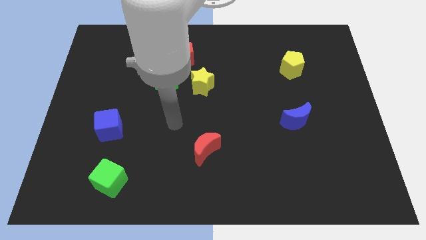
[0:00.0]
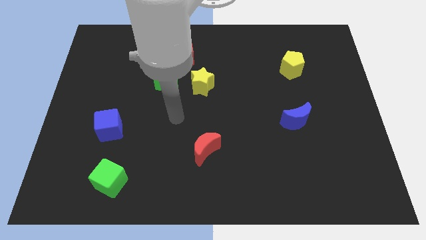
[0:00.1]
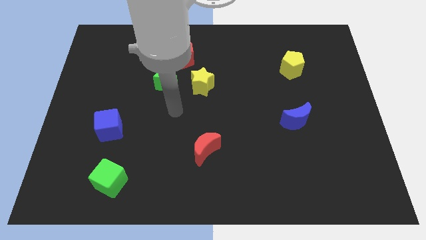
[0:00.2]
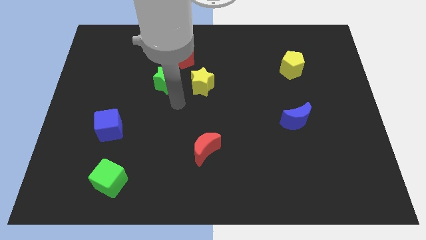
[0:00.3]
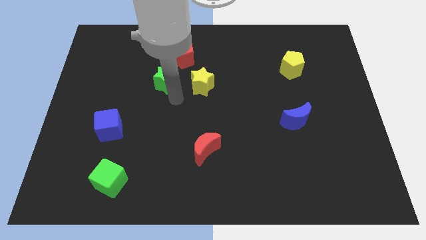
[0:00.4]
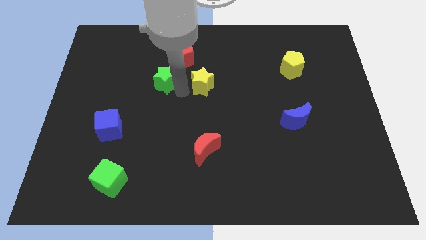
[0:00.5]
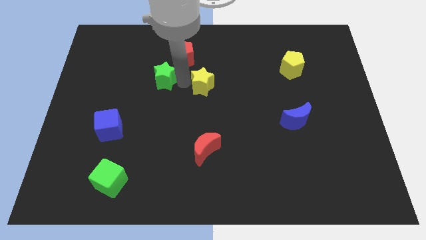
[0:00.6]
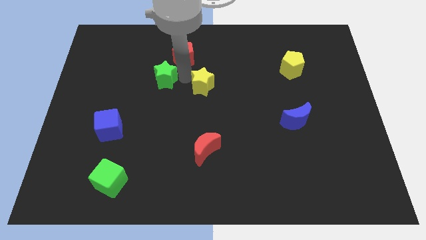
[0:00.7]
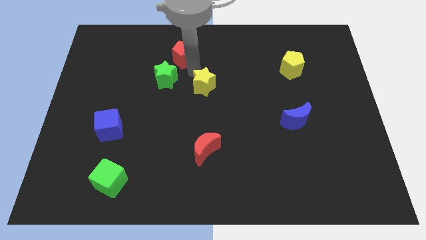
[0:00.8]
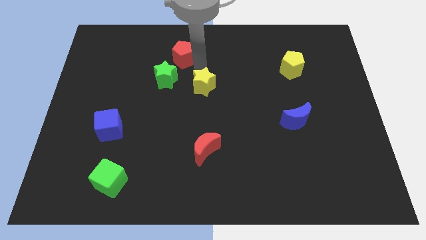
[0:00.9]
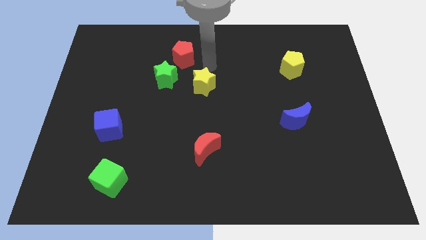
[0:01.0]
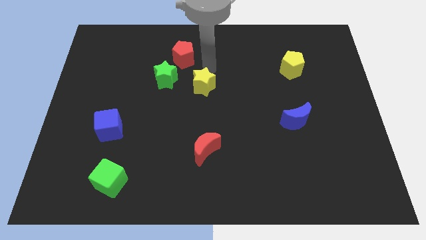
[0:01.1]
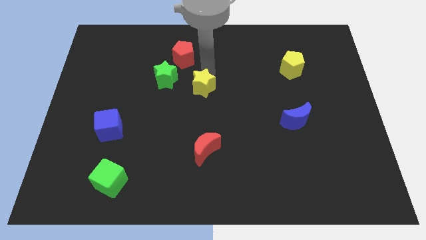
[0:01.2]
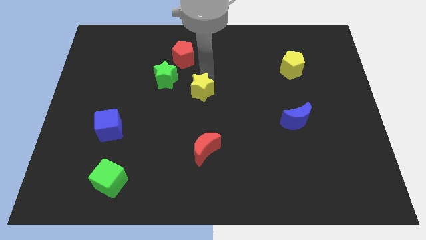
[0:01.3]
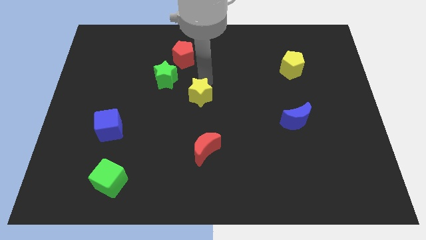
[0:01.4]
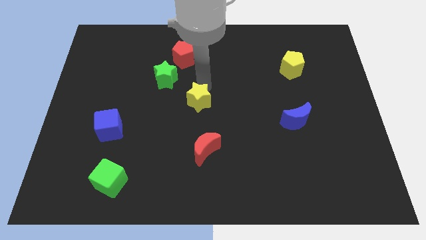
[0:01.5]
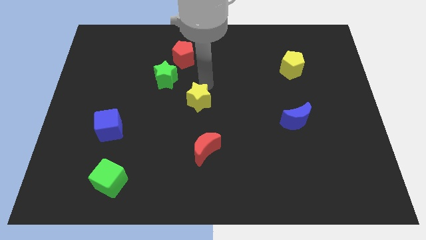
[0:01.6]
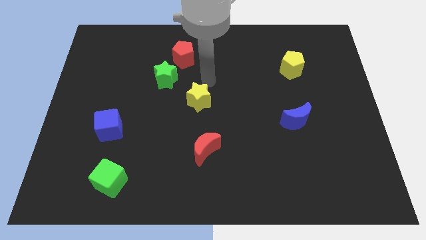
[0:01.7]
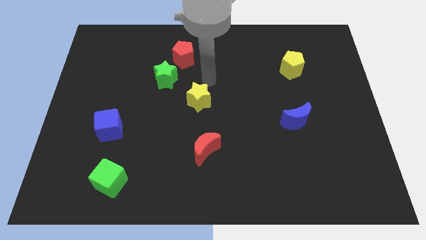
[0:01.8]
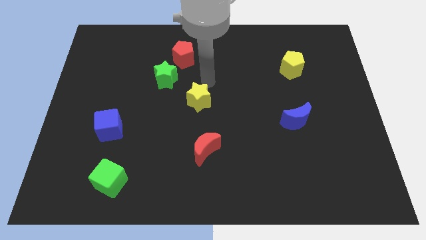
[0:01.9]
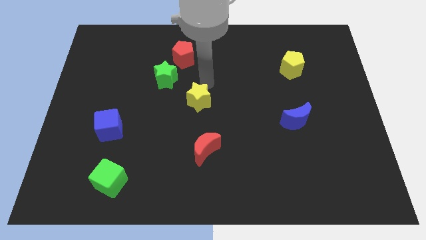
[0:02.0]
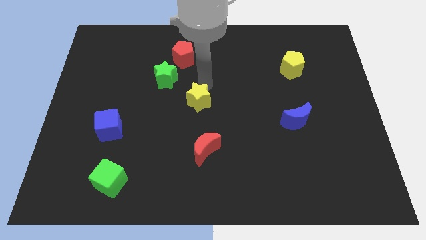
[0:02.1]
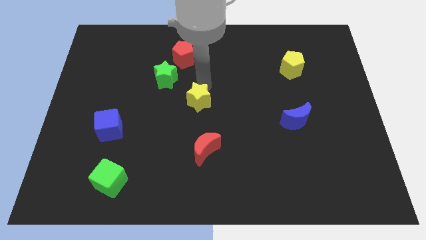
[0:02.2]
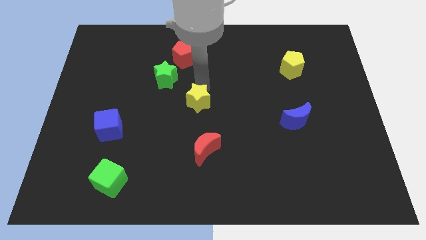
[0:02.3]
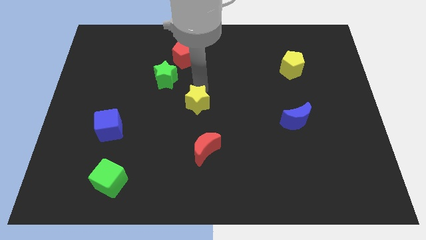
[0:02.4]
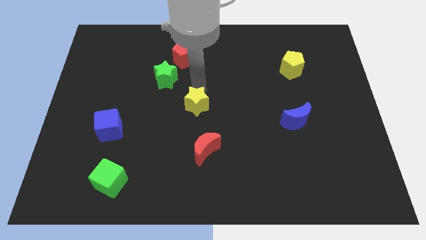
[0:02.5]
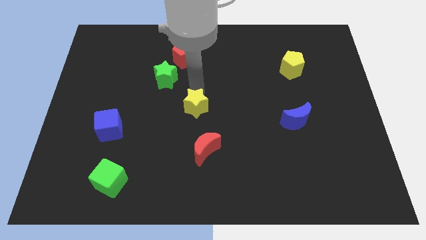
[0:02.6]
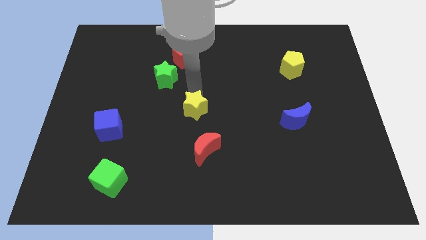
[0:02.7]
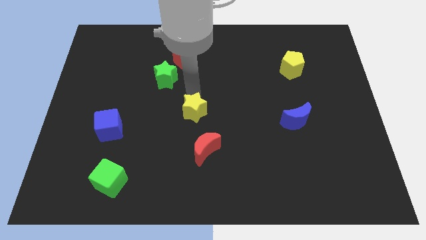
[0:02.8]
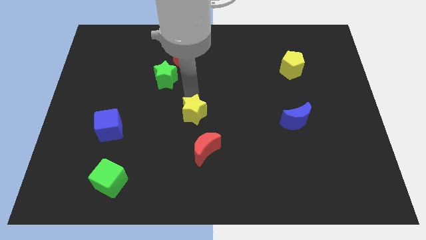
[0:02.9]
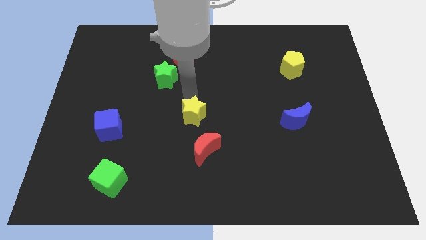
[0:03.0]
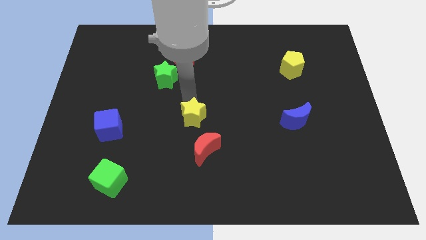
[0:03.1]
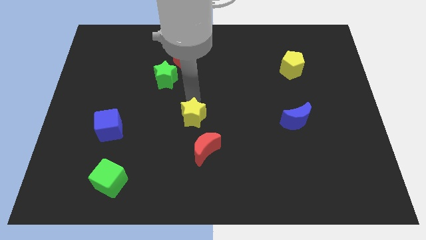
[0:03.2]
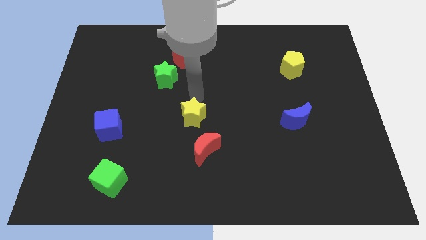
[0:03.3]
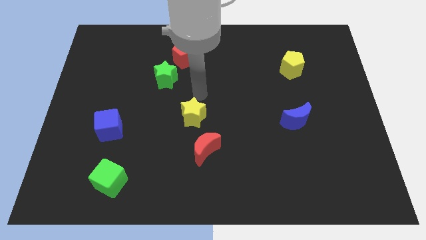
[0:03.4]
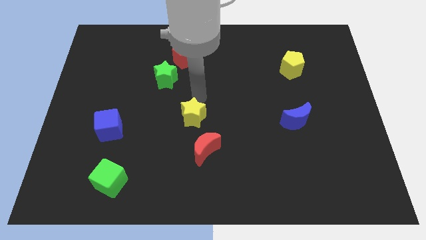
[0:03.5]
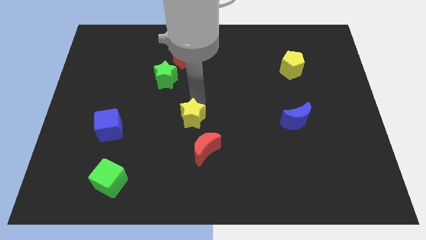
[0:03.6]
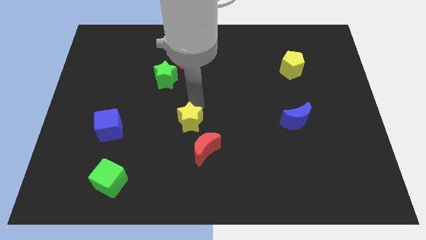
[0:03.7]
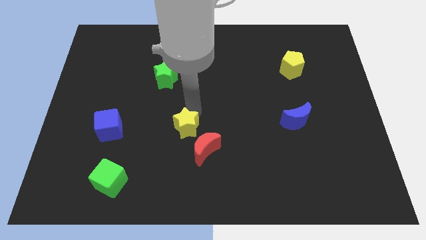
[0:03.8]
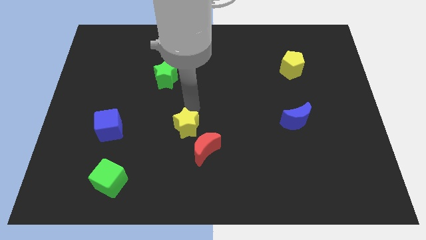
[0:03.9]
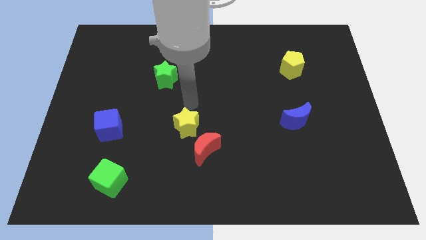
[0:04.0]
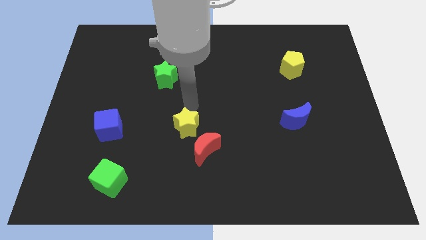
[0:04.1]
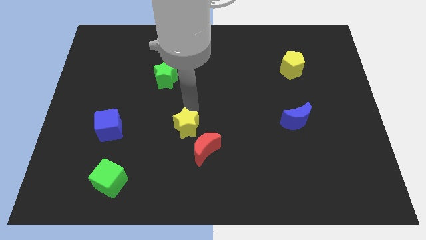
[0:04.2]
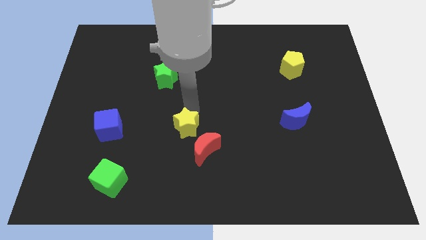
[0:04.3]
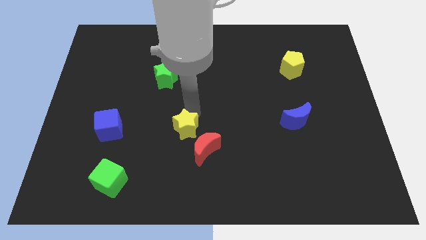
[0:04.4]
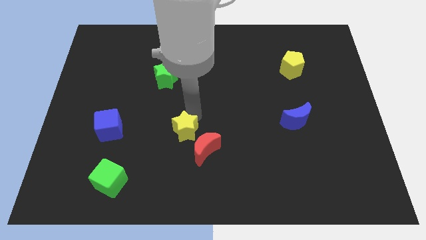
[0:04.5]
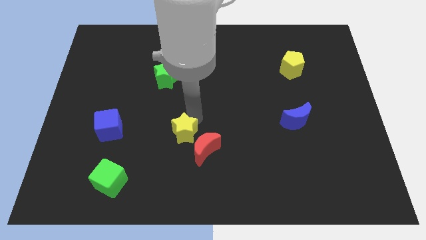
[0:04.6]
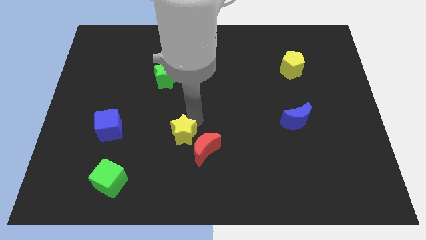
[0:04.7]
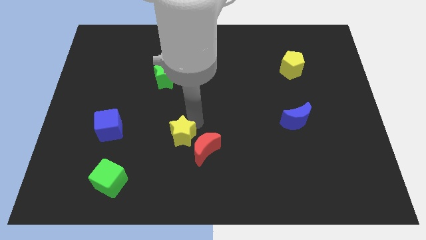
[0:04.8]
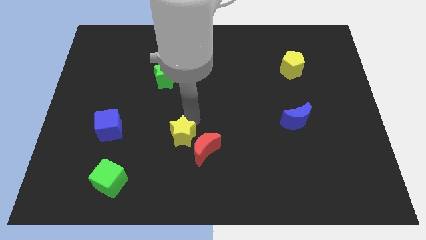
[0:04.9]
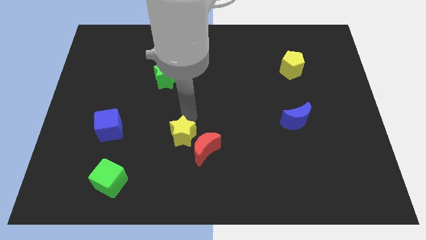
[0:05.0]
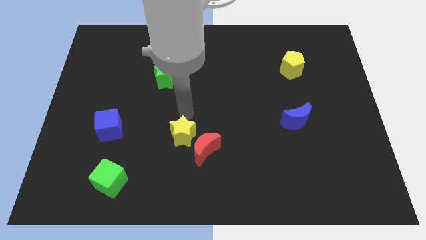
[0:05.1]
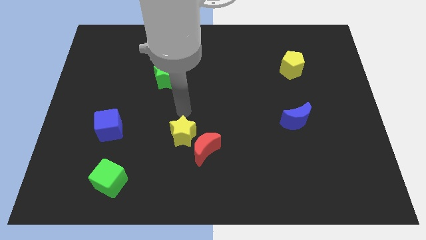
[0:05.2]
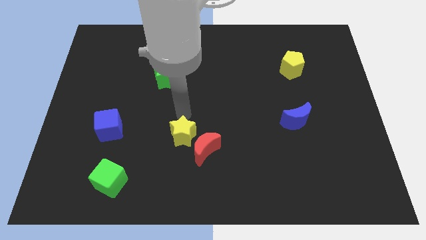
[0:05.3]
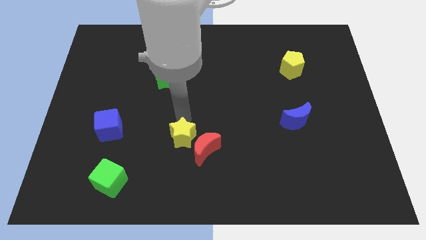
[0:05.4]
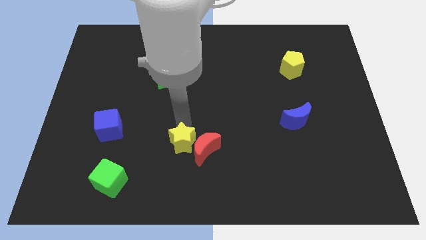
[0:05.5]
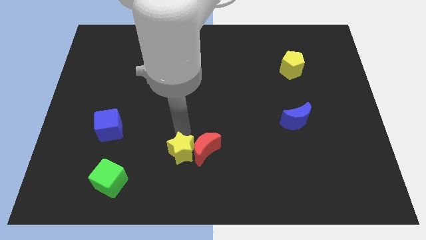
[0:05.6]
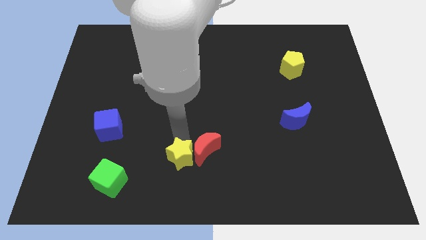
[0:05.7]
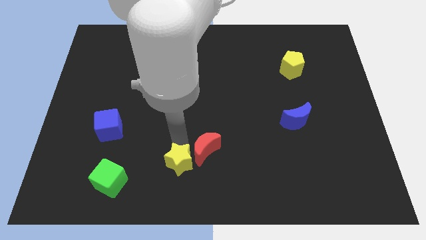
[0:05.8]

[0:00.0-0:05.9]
put the yellow star to the bottom side
